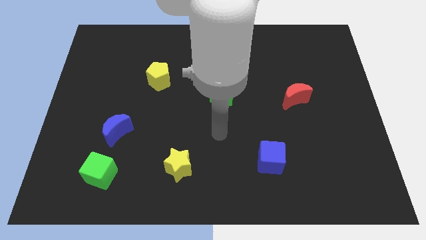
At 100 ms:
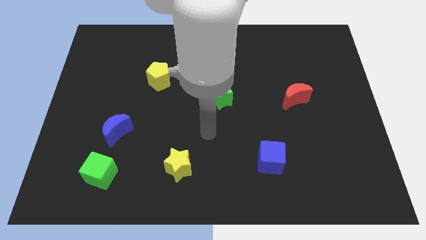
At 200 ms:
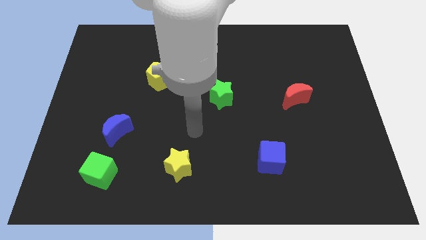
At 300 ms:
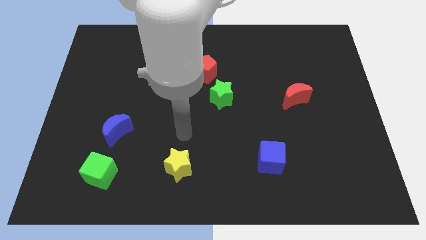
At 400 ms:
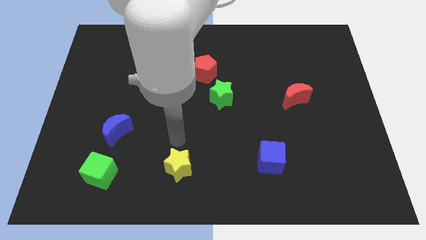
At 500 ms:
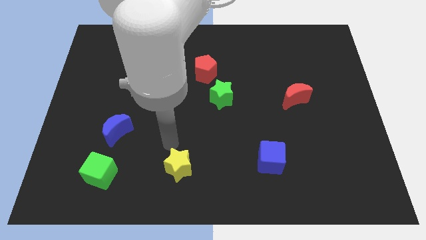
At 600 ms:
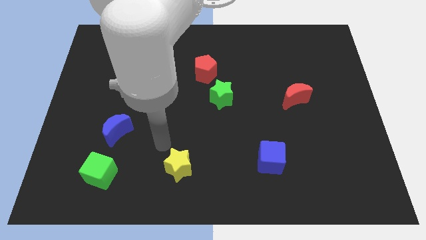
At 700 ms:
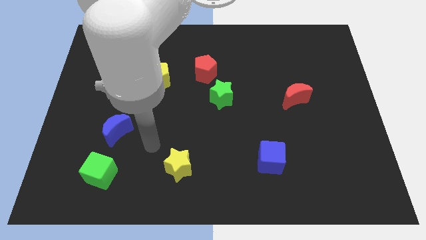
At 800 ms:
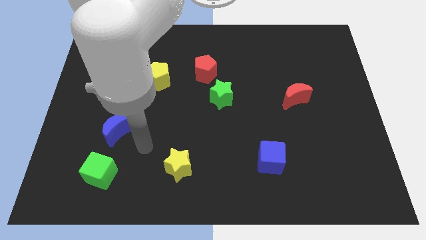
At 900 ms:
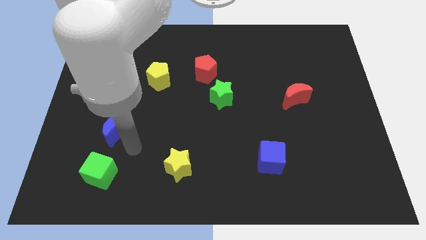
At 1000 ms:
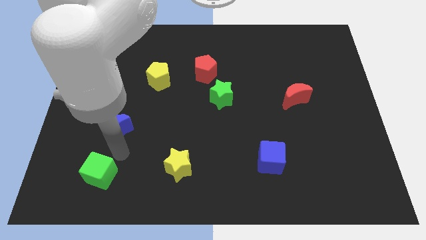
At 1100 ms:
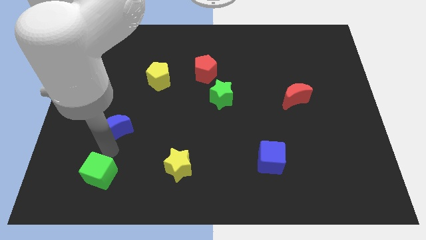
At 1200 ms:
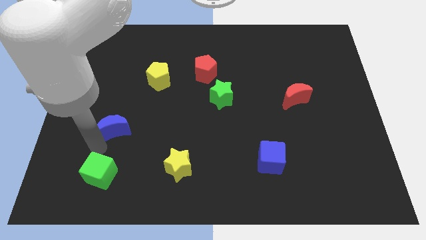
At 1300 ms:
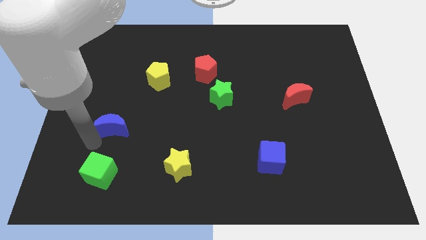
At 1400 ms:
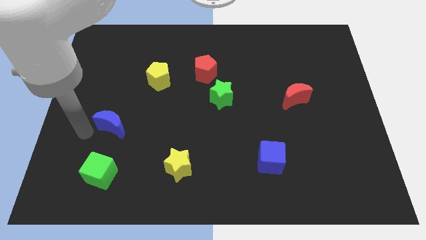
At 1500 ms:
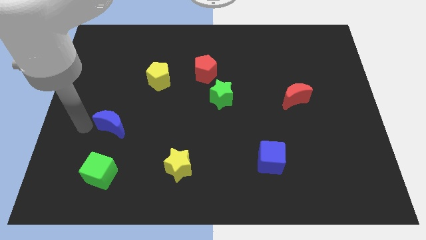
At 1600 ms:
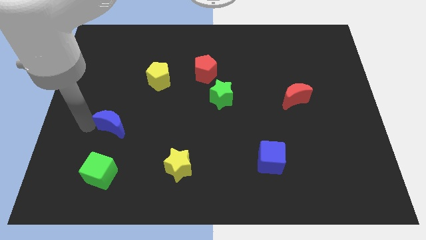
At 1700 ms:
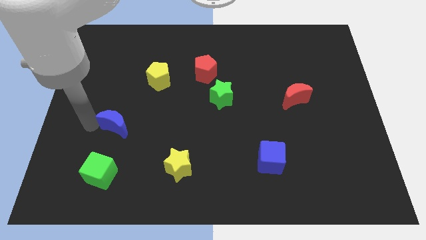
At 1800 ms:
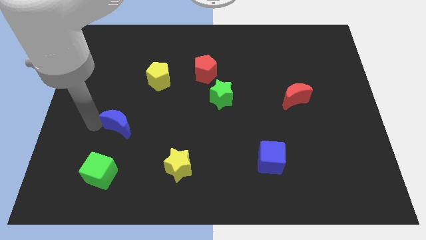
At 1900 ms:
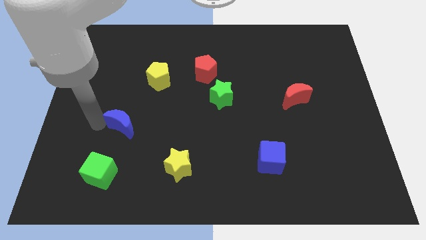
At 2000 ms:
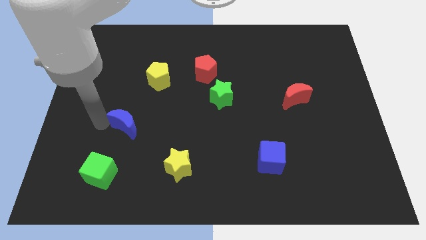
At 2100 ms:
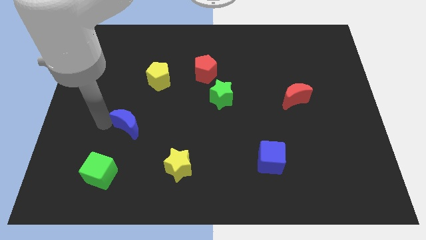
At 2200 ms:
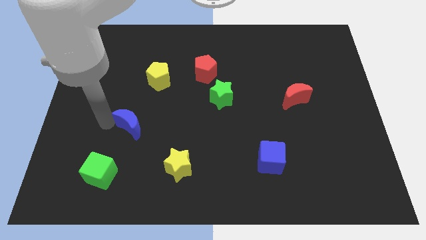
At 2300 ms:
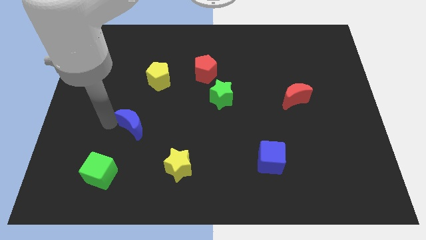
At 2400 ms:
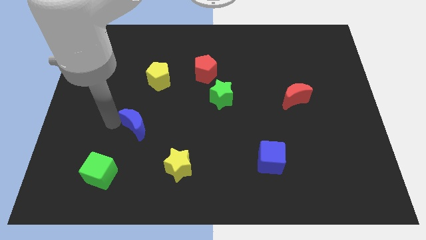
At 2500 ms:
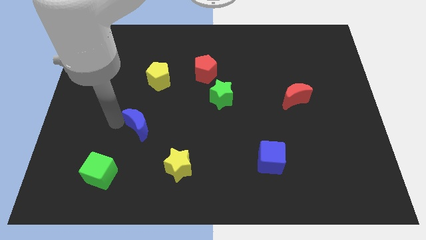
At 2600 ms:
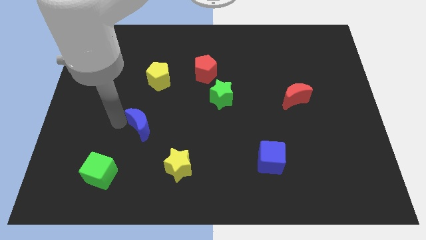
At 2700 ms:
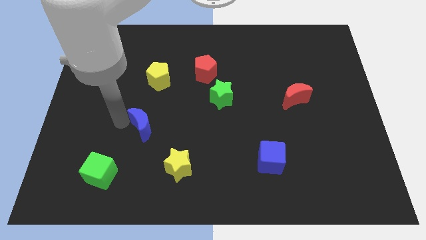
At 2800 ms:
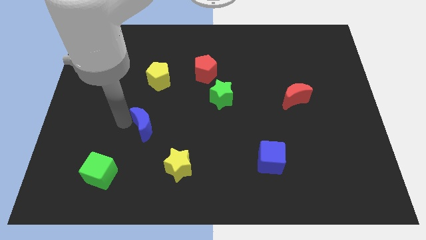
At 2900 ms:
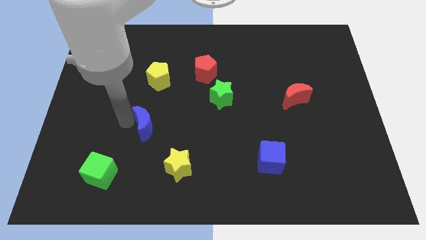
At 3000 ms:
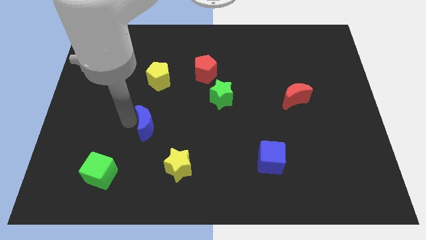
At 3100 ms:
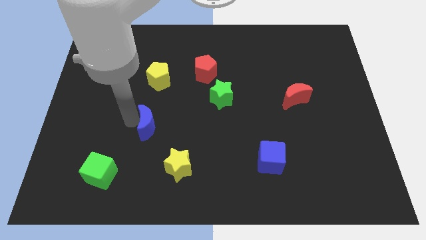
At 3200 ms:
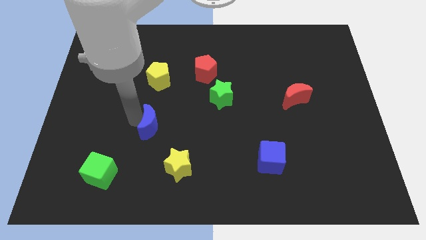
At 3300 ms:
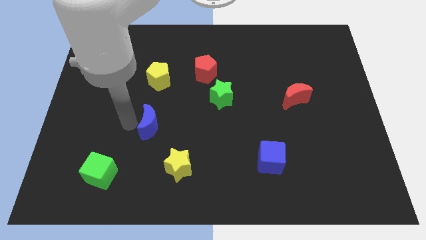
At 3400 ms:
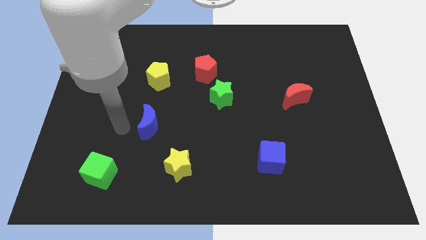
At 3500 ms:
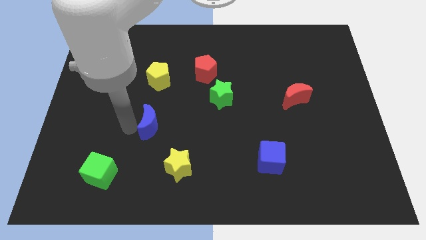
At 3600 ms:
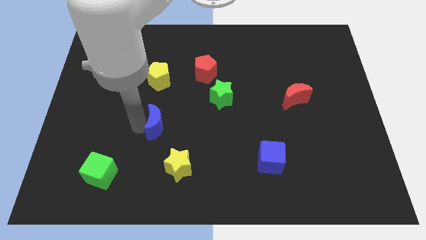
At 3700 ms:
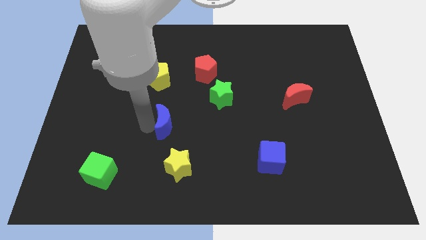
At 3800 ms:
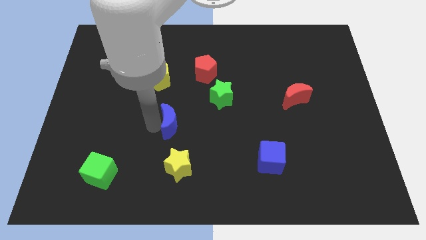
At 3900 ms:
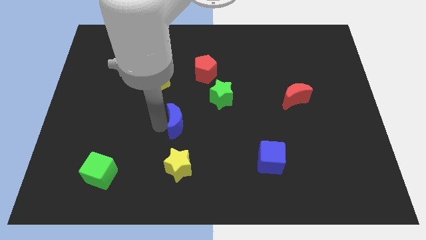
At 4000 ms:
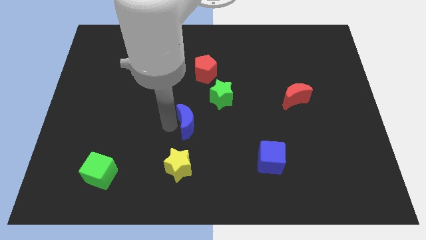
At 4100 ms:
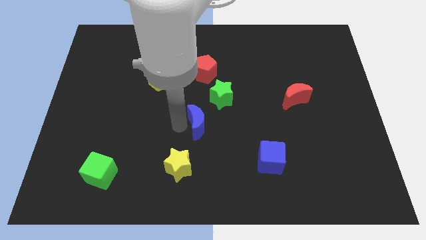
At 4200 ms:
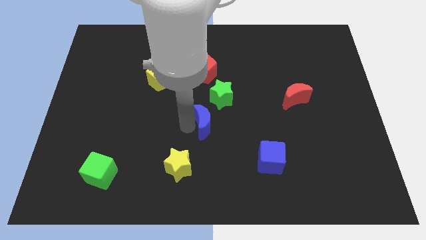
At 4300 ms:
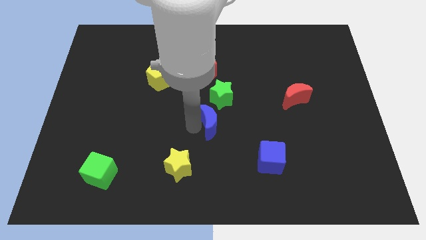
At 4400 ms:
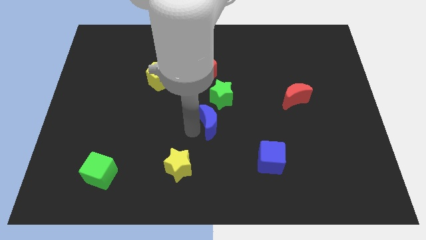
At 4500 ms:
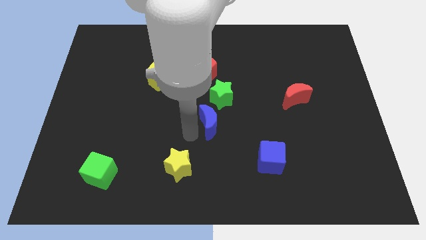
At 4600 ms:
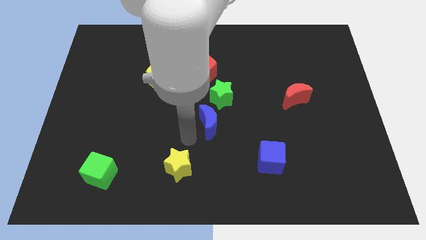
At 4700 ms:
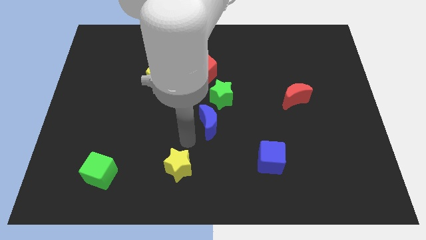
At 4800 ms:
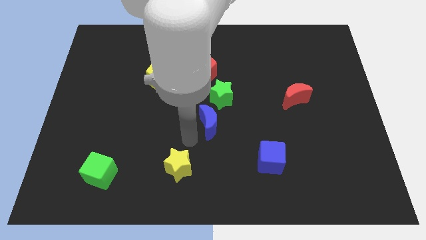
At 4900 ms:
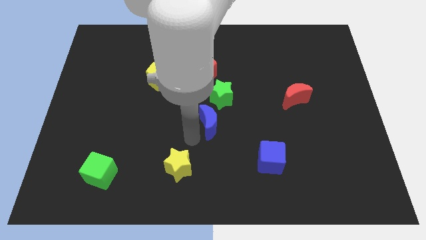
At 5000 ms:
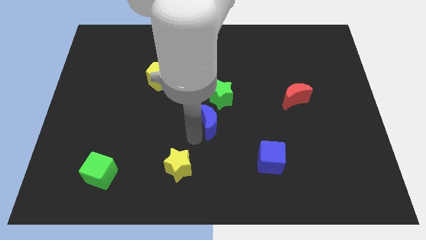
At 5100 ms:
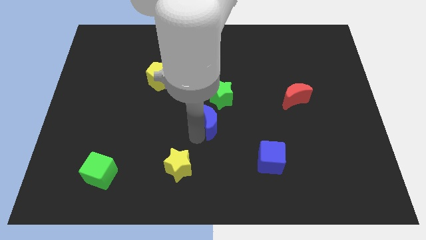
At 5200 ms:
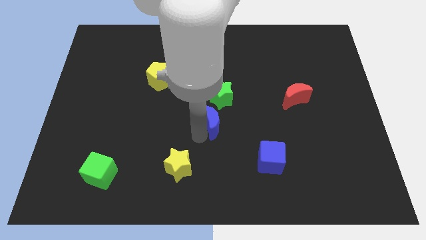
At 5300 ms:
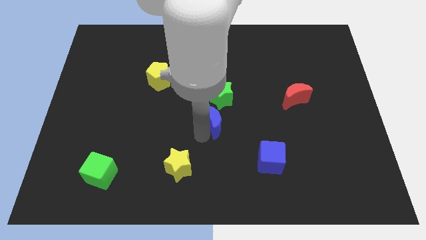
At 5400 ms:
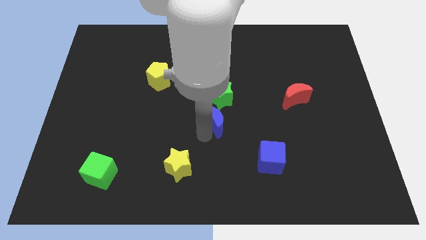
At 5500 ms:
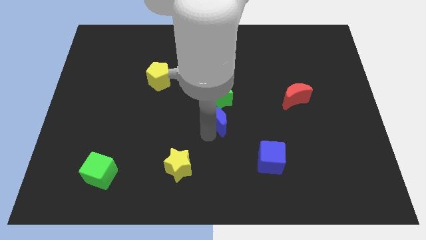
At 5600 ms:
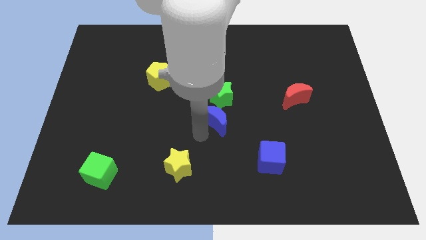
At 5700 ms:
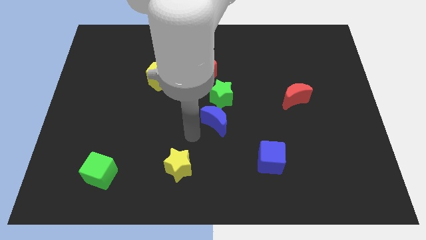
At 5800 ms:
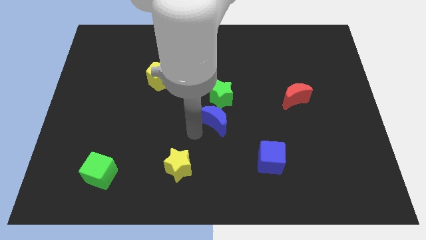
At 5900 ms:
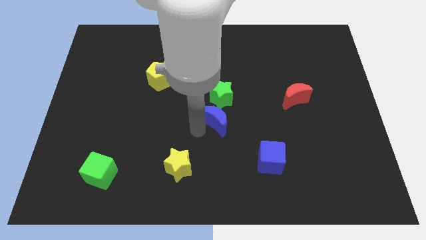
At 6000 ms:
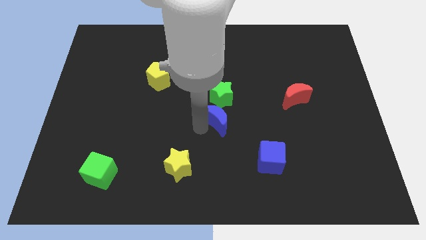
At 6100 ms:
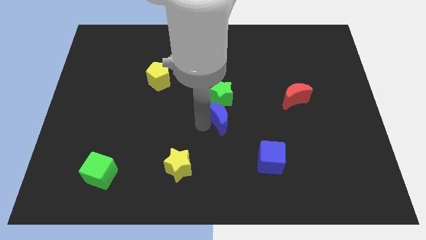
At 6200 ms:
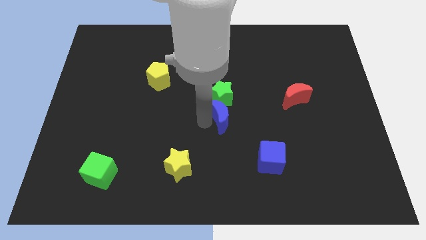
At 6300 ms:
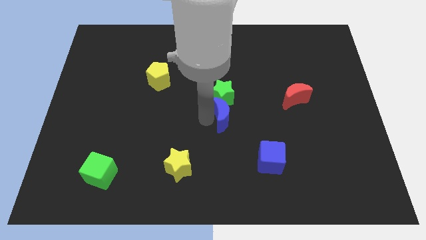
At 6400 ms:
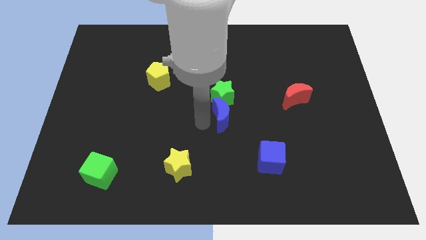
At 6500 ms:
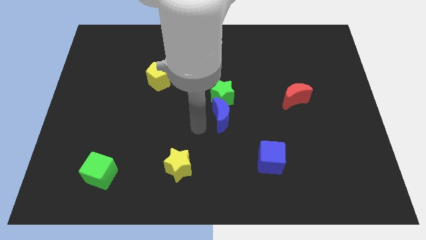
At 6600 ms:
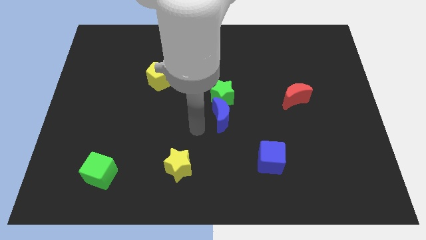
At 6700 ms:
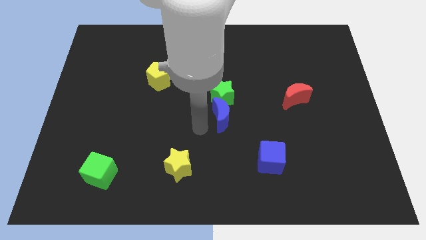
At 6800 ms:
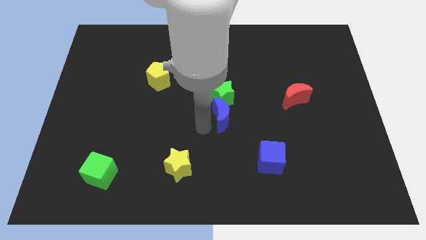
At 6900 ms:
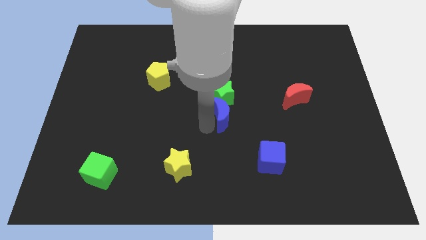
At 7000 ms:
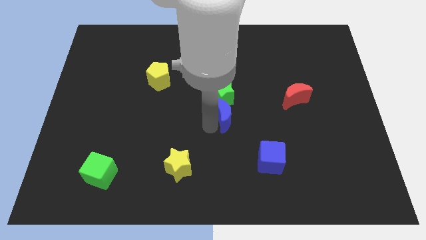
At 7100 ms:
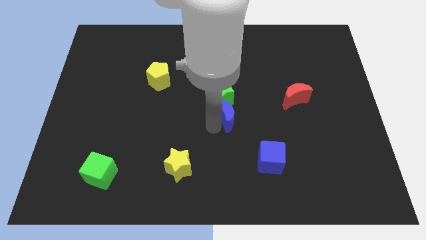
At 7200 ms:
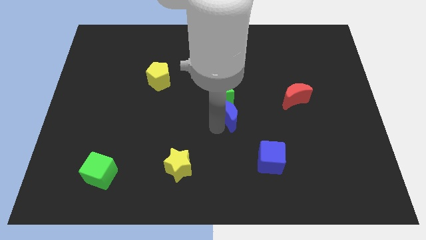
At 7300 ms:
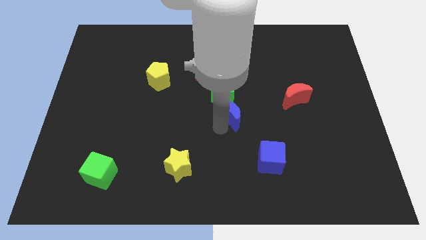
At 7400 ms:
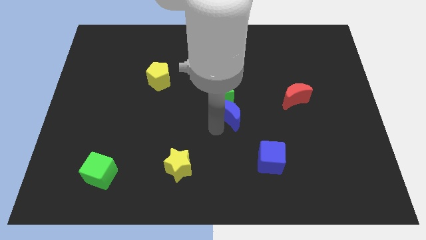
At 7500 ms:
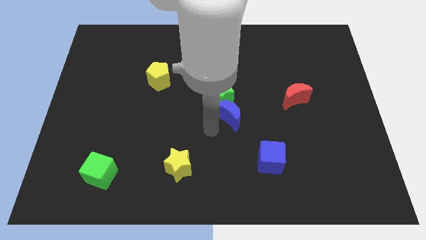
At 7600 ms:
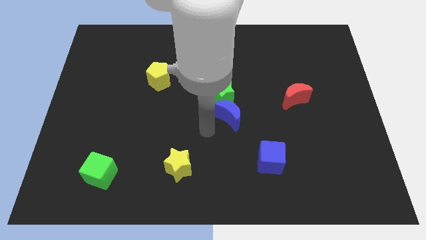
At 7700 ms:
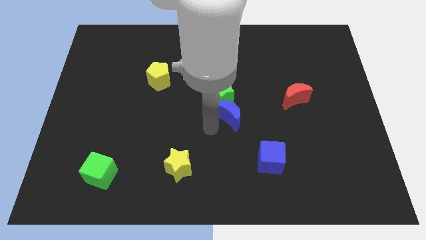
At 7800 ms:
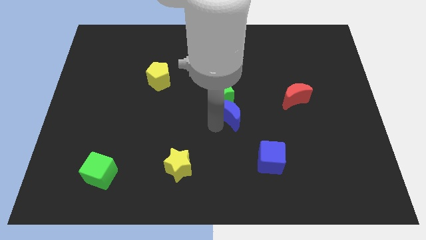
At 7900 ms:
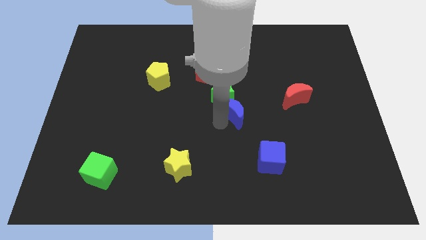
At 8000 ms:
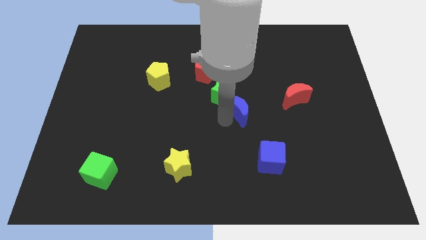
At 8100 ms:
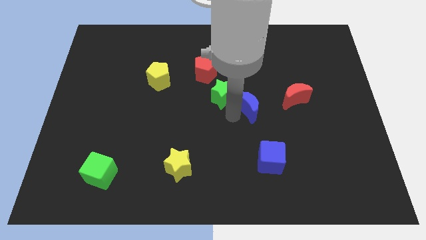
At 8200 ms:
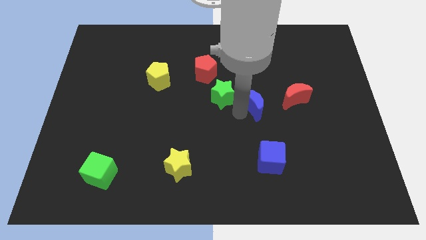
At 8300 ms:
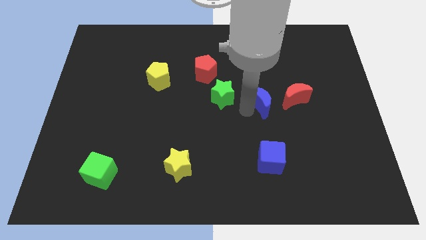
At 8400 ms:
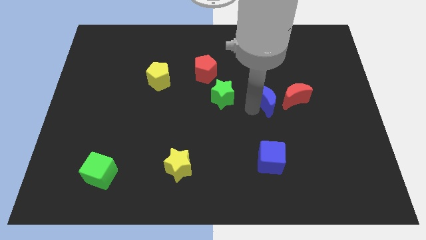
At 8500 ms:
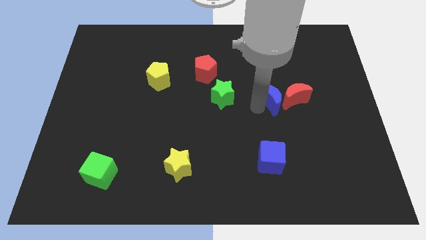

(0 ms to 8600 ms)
slide the blue moon to the red moon
